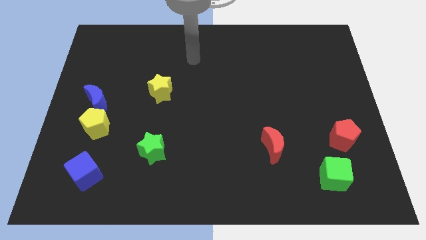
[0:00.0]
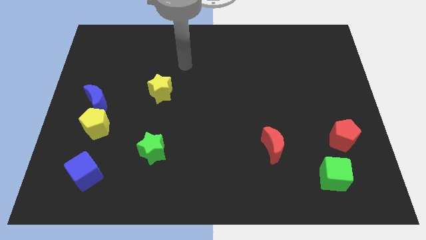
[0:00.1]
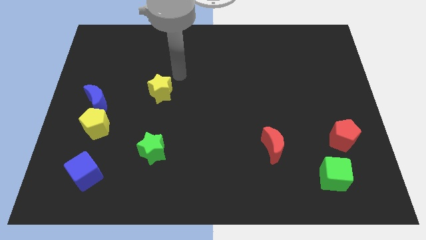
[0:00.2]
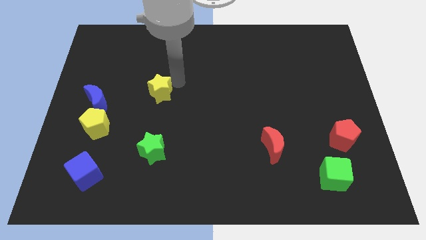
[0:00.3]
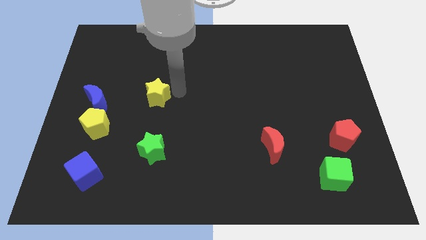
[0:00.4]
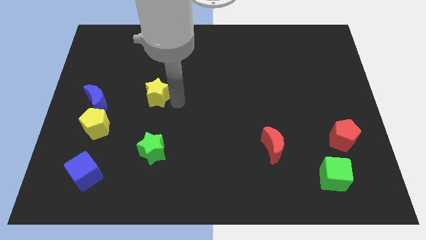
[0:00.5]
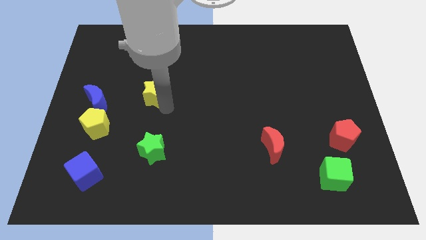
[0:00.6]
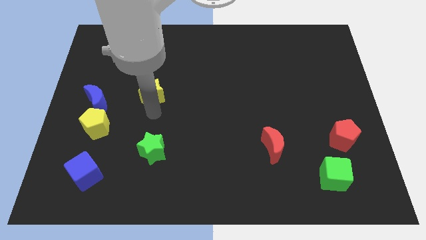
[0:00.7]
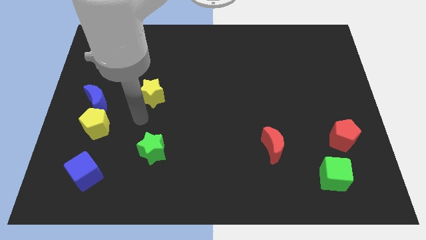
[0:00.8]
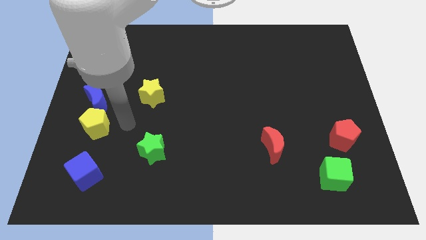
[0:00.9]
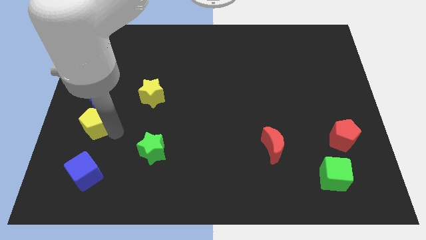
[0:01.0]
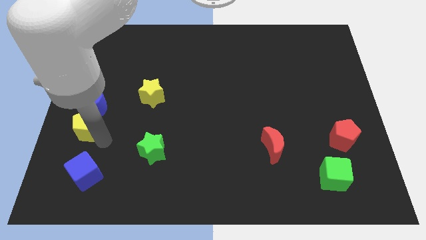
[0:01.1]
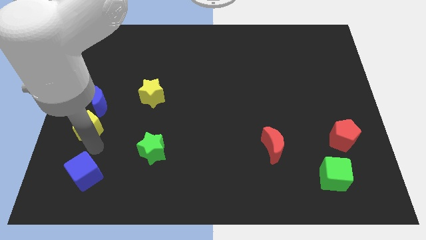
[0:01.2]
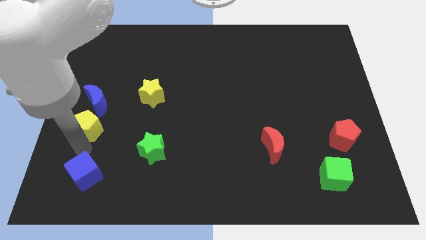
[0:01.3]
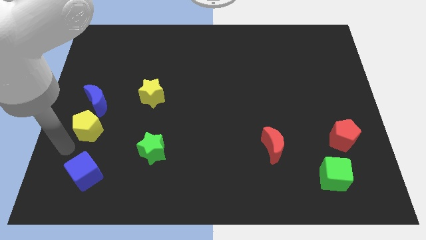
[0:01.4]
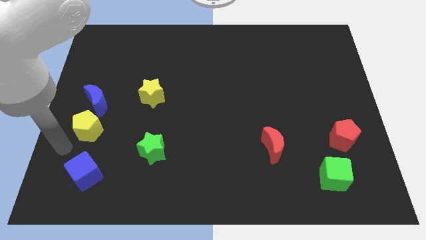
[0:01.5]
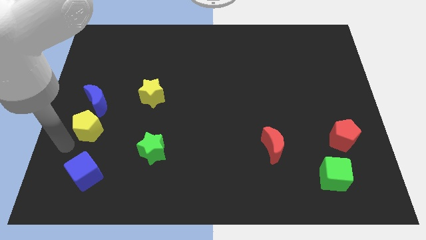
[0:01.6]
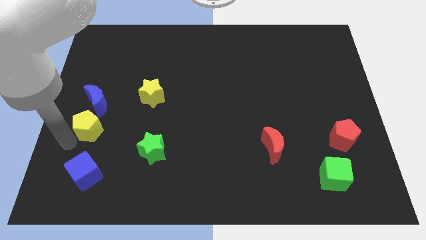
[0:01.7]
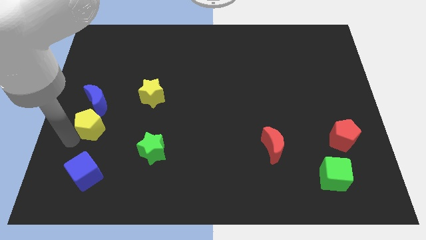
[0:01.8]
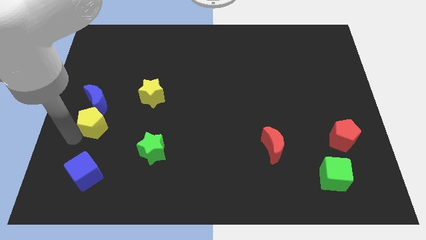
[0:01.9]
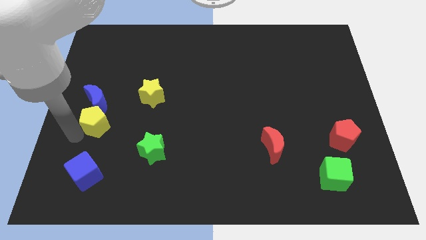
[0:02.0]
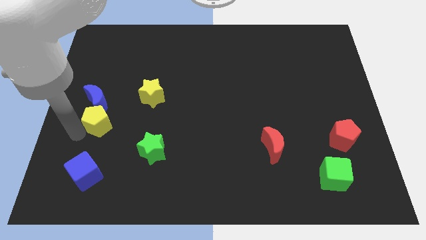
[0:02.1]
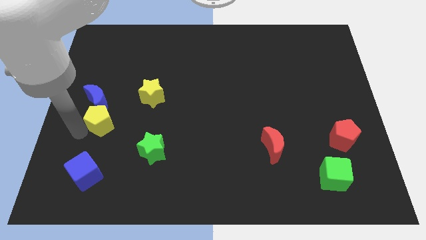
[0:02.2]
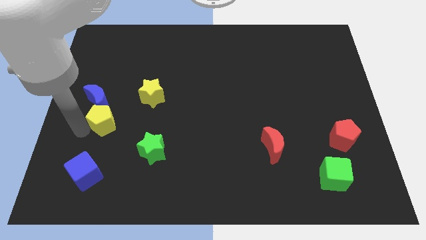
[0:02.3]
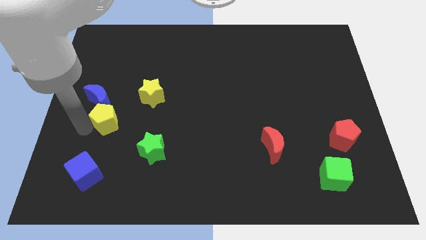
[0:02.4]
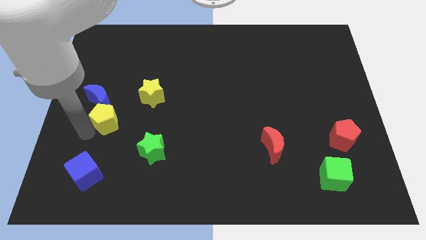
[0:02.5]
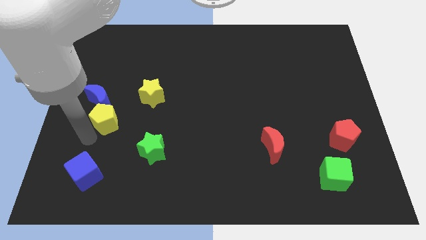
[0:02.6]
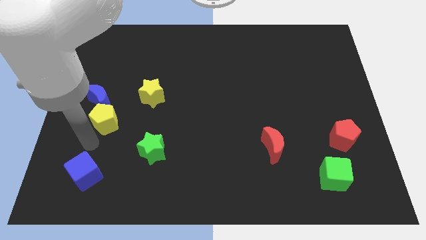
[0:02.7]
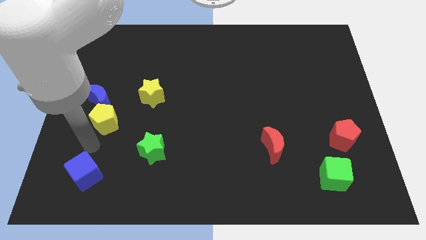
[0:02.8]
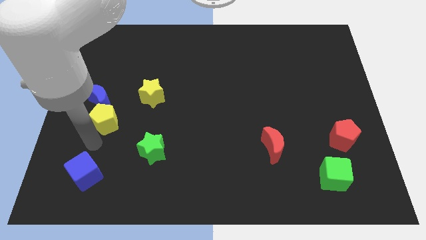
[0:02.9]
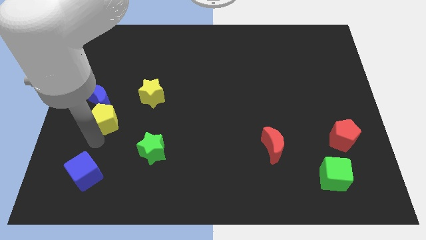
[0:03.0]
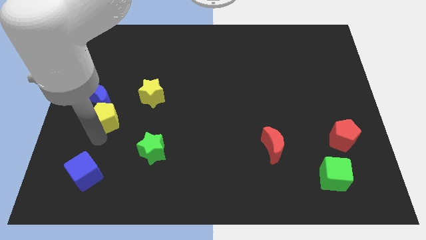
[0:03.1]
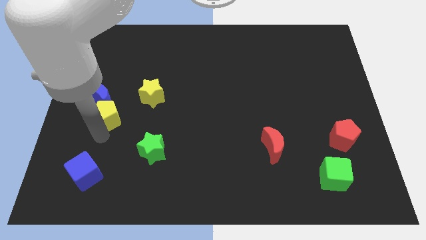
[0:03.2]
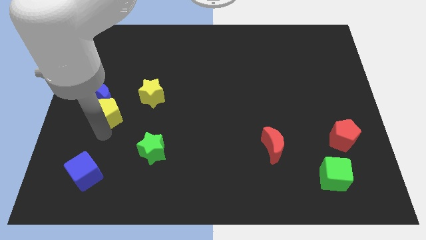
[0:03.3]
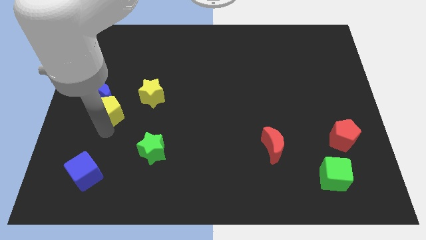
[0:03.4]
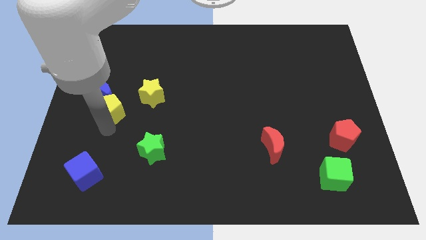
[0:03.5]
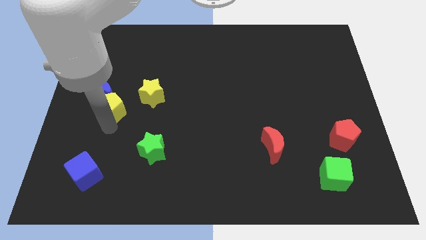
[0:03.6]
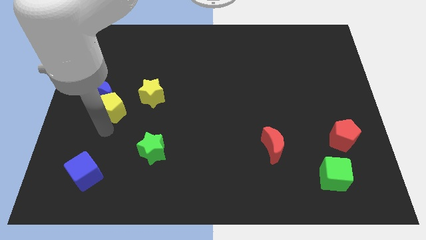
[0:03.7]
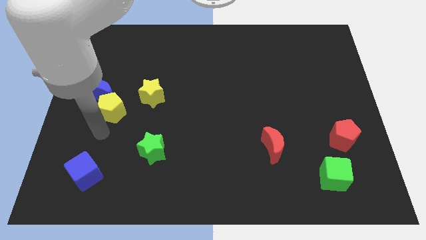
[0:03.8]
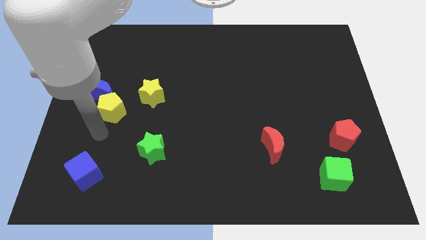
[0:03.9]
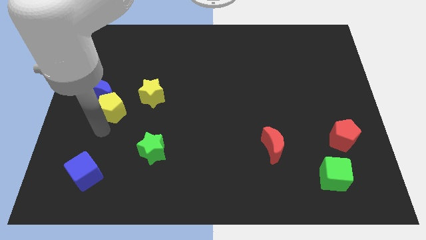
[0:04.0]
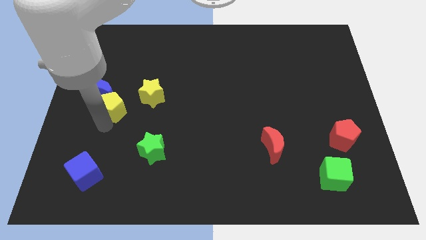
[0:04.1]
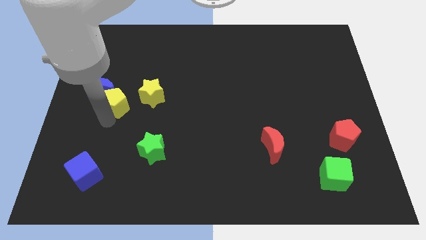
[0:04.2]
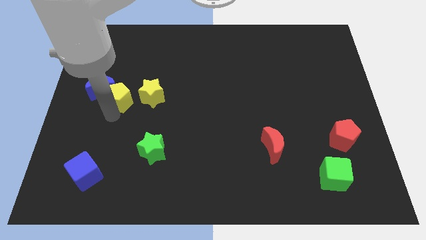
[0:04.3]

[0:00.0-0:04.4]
slightly slide the yellow pentagon up

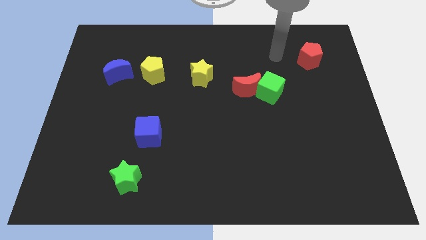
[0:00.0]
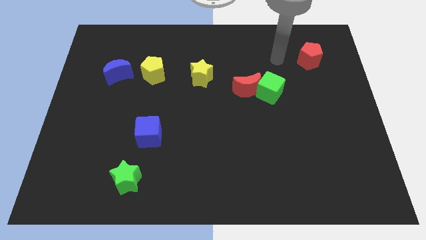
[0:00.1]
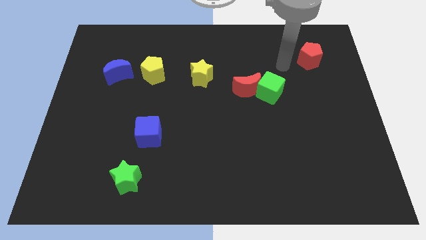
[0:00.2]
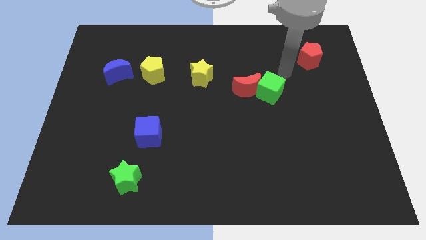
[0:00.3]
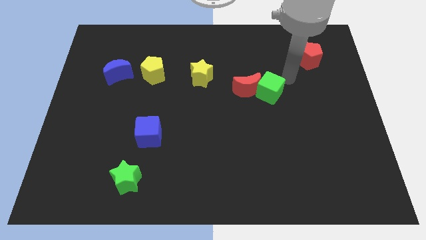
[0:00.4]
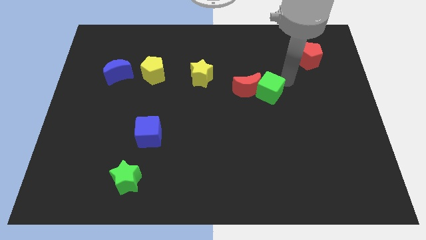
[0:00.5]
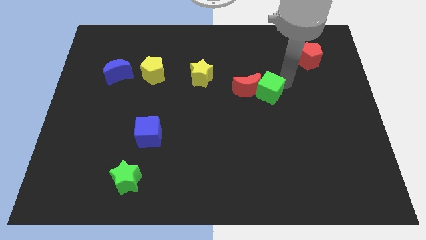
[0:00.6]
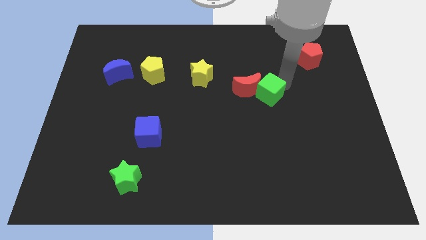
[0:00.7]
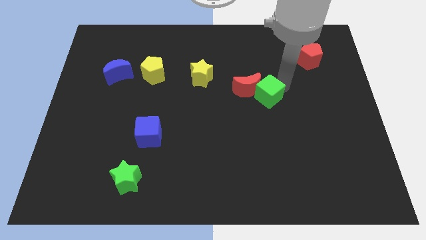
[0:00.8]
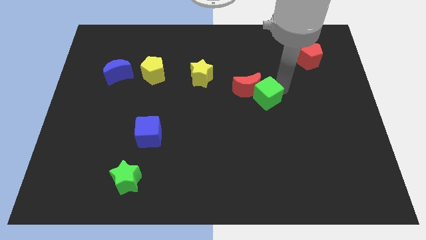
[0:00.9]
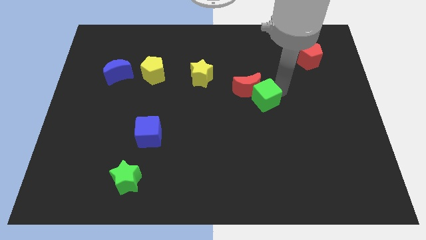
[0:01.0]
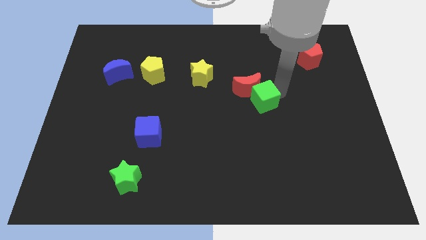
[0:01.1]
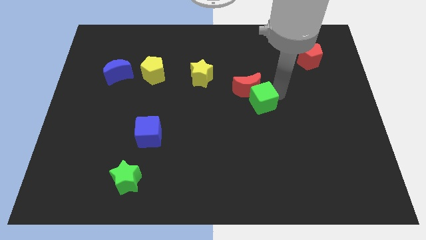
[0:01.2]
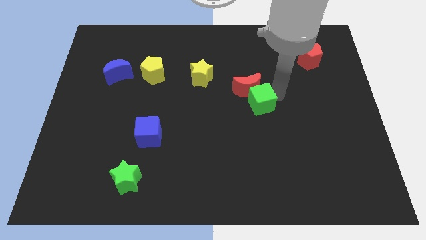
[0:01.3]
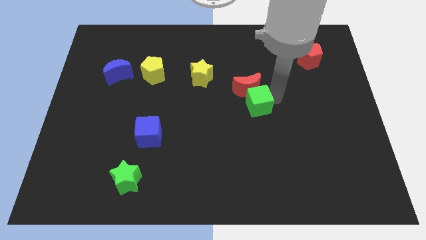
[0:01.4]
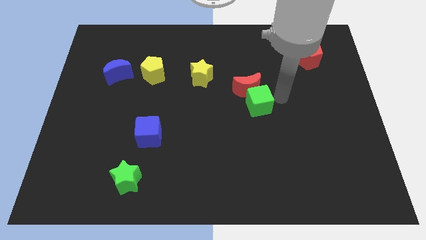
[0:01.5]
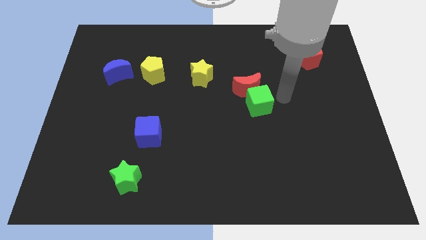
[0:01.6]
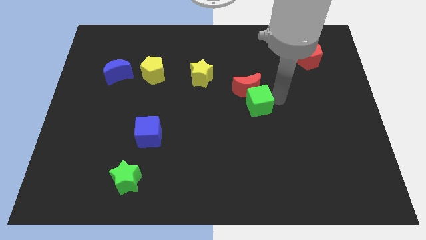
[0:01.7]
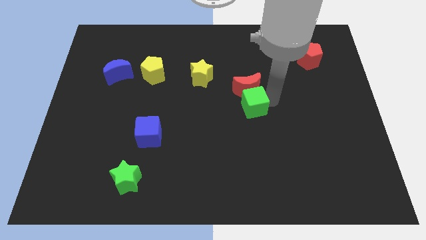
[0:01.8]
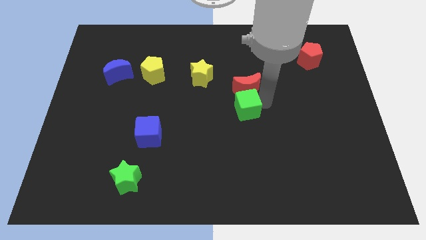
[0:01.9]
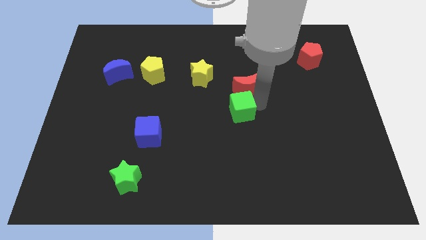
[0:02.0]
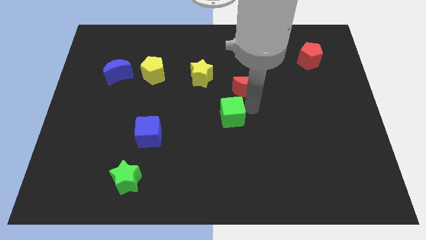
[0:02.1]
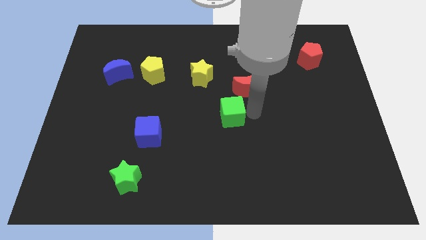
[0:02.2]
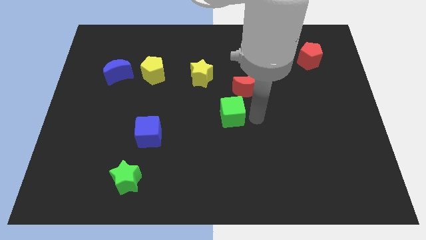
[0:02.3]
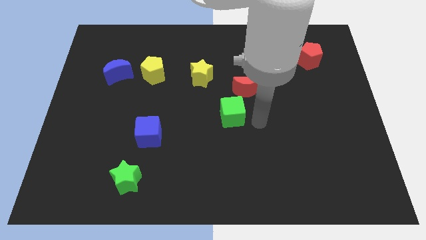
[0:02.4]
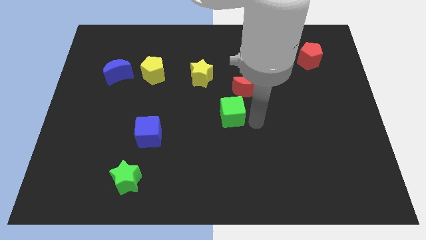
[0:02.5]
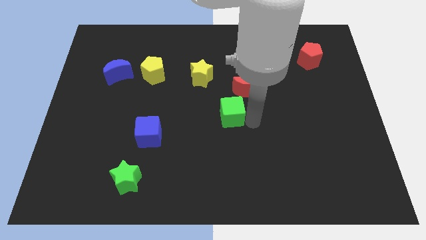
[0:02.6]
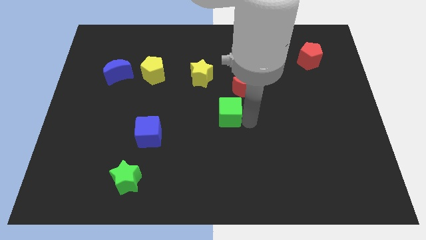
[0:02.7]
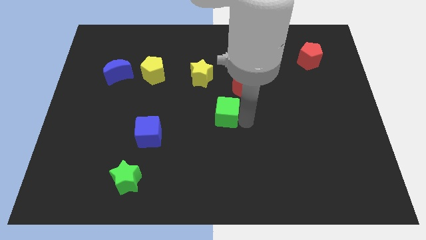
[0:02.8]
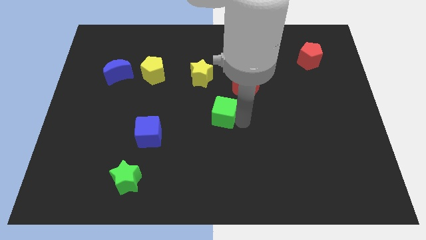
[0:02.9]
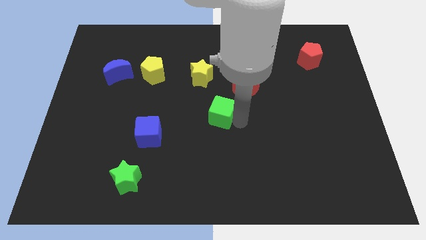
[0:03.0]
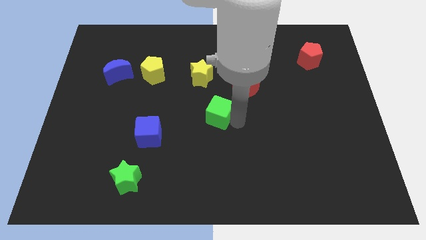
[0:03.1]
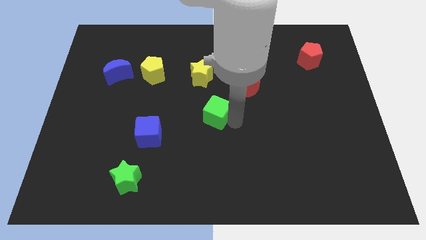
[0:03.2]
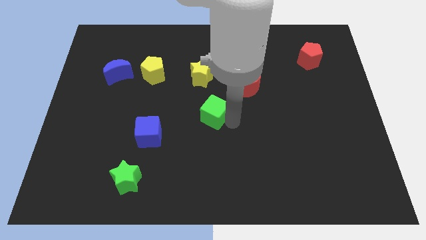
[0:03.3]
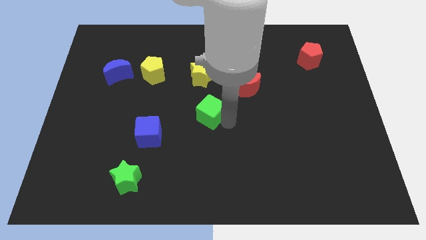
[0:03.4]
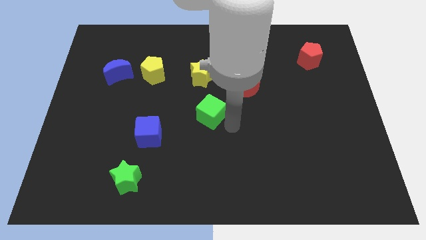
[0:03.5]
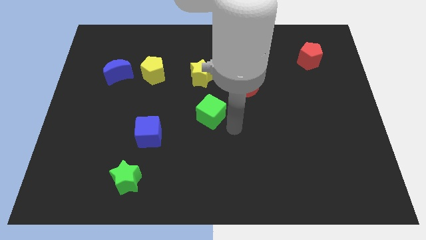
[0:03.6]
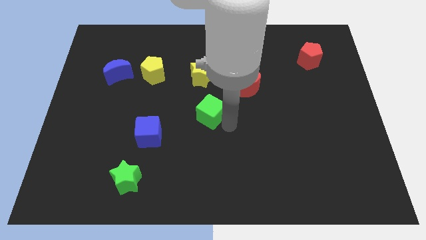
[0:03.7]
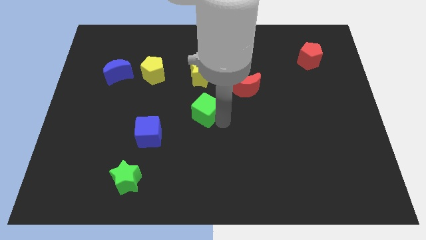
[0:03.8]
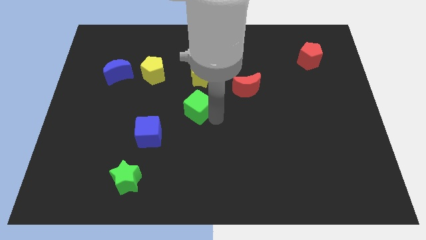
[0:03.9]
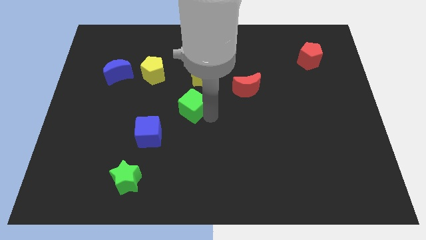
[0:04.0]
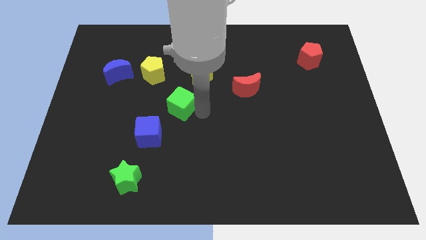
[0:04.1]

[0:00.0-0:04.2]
slide the green cube left
